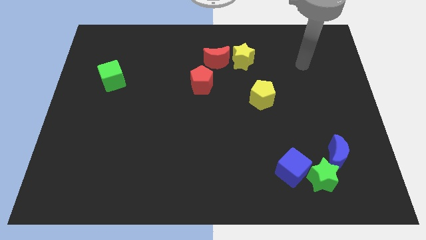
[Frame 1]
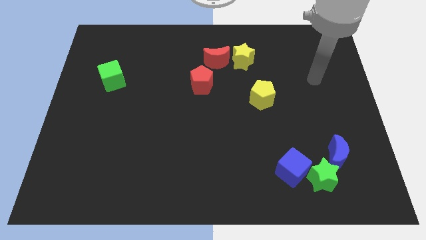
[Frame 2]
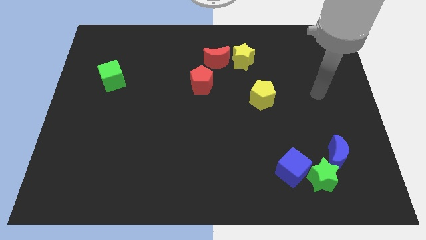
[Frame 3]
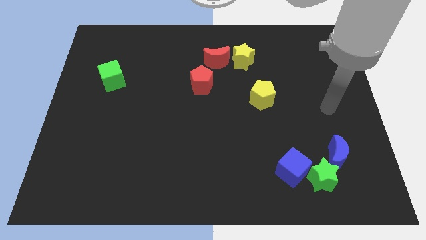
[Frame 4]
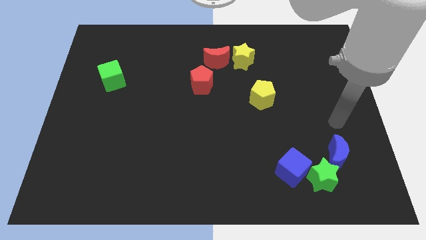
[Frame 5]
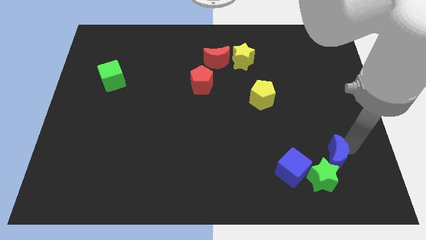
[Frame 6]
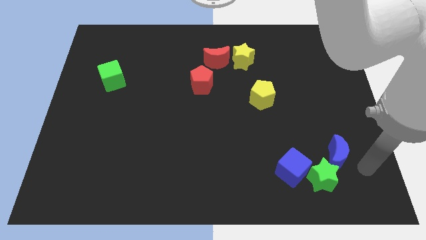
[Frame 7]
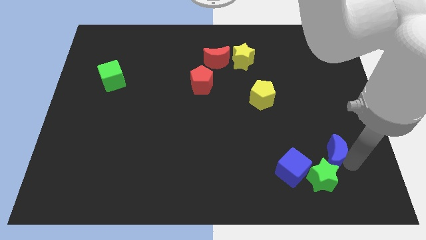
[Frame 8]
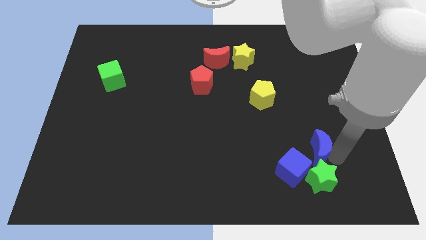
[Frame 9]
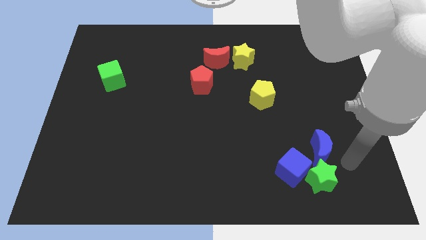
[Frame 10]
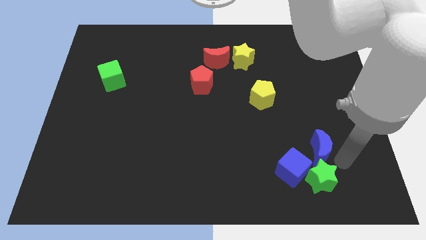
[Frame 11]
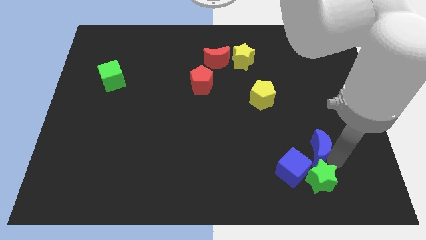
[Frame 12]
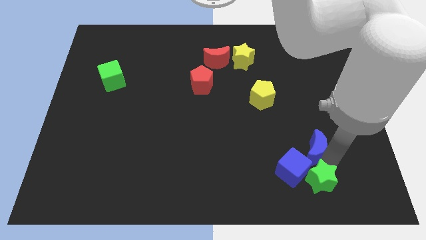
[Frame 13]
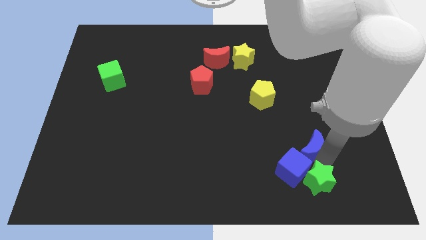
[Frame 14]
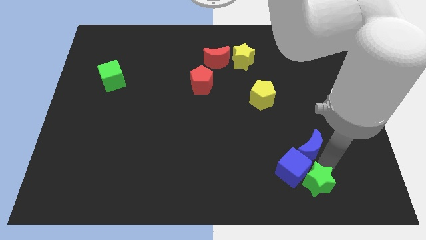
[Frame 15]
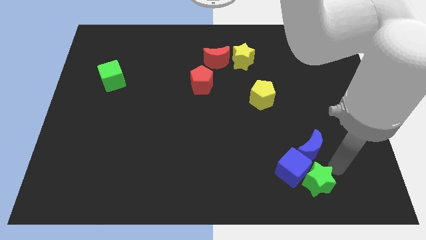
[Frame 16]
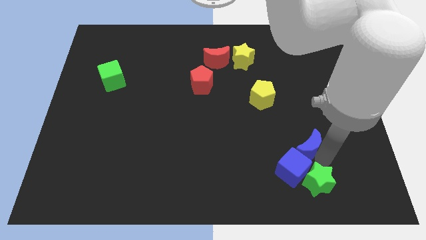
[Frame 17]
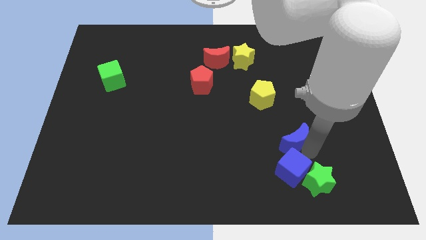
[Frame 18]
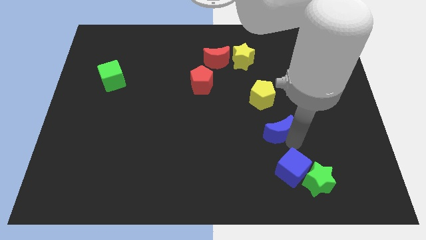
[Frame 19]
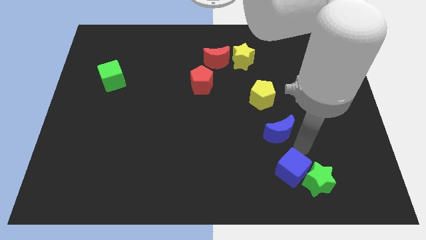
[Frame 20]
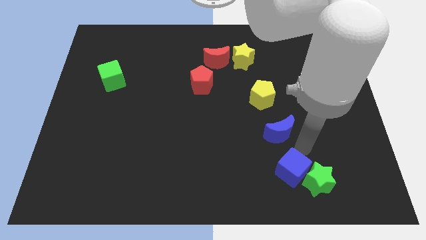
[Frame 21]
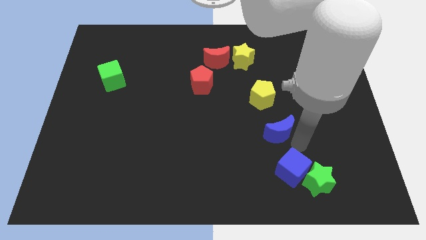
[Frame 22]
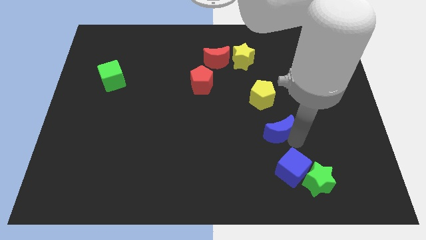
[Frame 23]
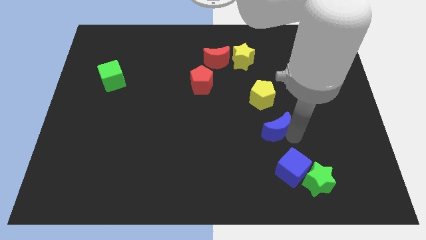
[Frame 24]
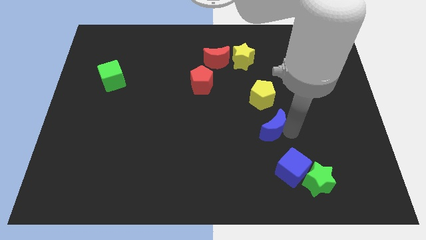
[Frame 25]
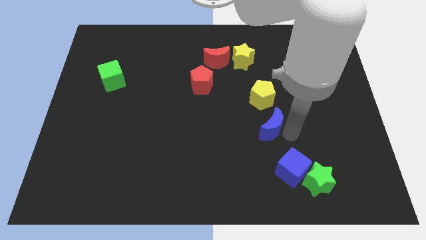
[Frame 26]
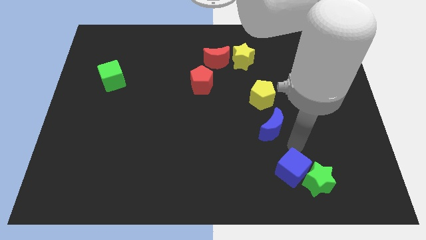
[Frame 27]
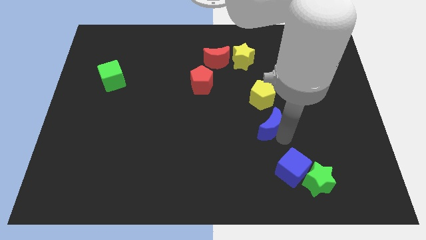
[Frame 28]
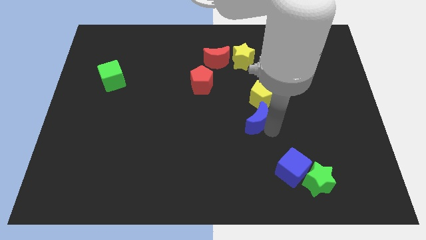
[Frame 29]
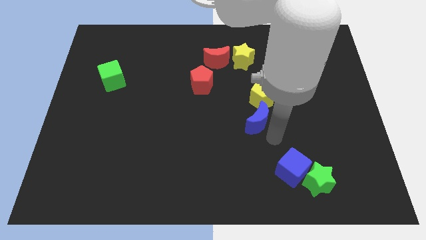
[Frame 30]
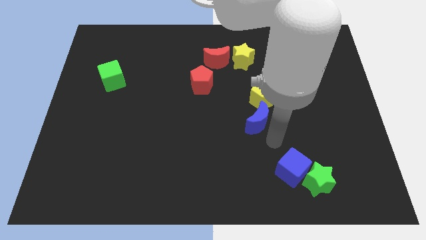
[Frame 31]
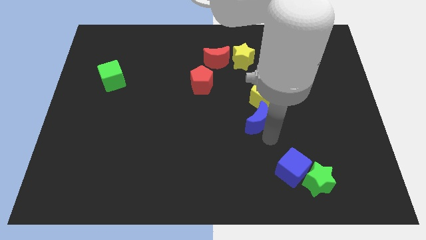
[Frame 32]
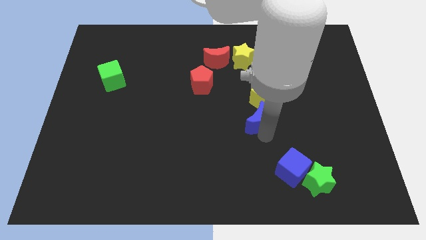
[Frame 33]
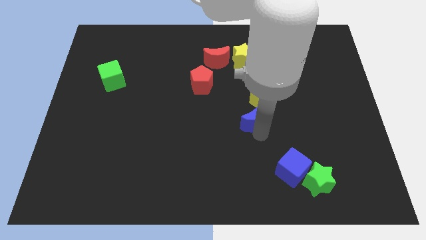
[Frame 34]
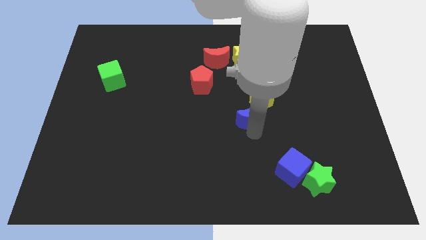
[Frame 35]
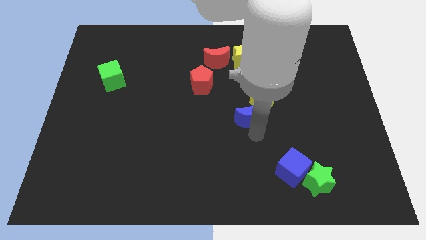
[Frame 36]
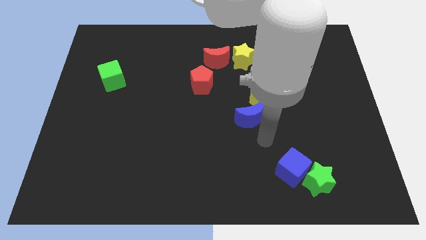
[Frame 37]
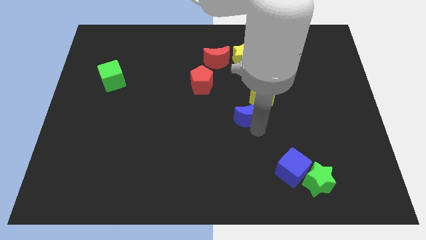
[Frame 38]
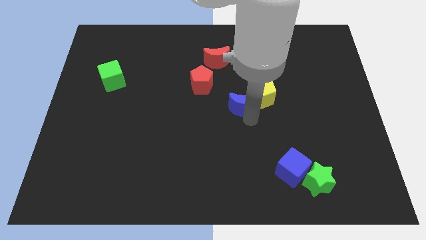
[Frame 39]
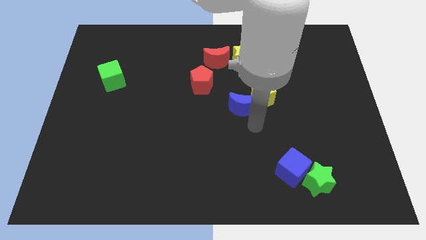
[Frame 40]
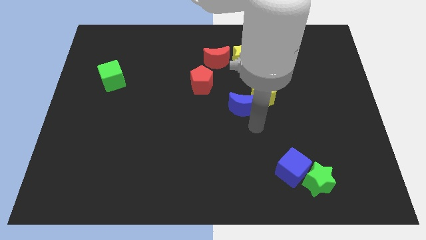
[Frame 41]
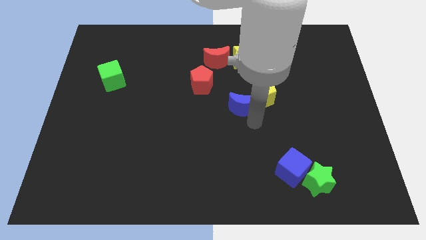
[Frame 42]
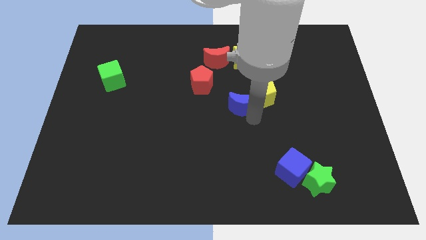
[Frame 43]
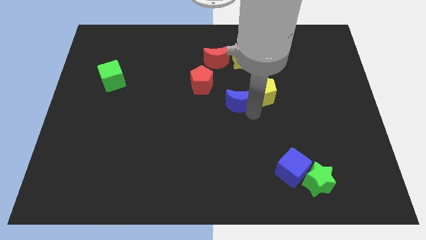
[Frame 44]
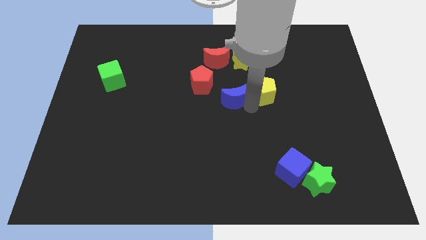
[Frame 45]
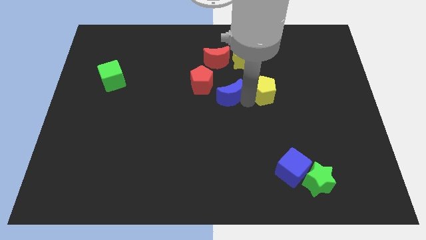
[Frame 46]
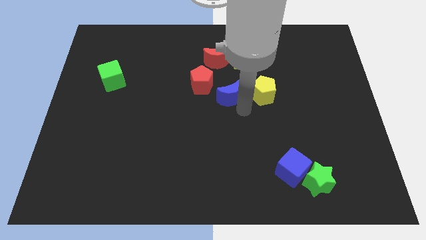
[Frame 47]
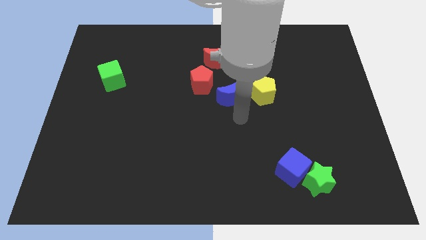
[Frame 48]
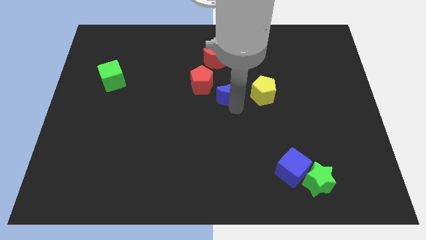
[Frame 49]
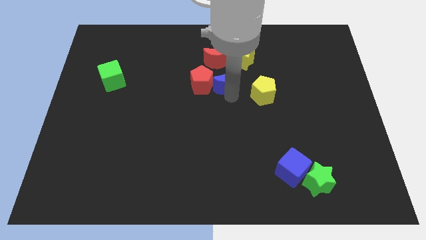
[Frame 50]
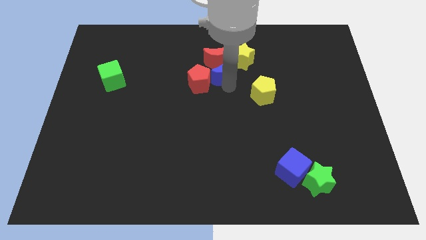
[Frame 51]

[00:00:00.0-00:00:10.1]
push the blue moon next to the red moon

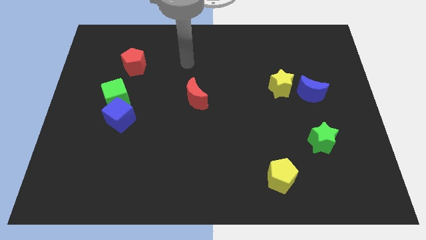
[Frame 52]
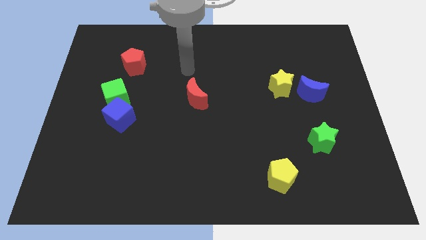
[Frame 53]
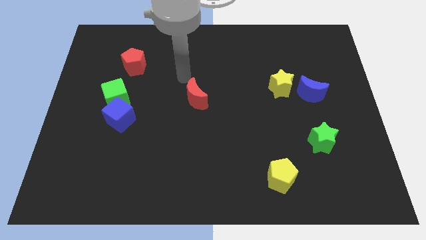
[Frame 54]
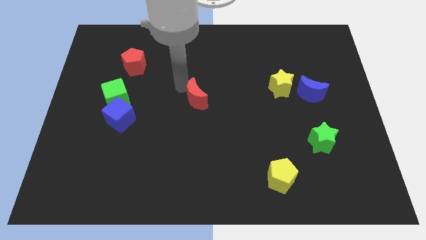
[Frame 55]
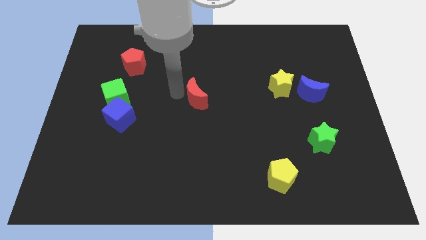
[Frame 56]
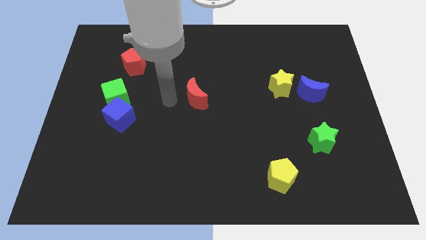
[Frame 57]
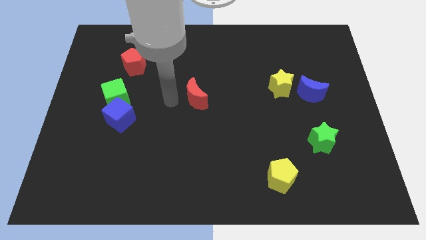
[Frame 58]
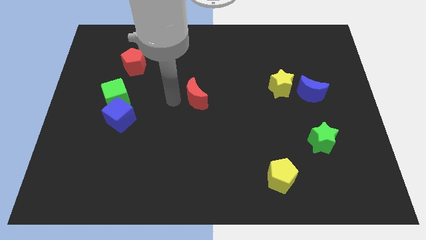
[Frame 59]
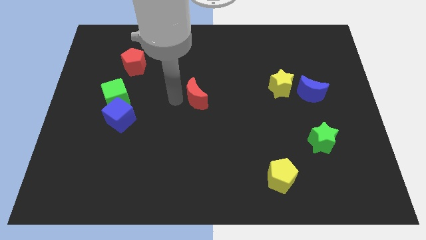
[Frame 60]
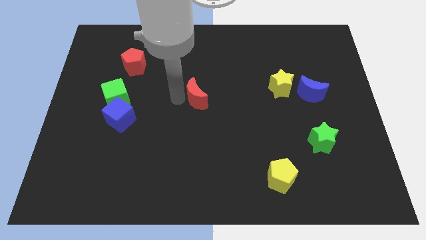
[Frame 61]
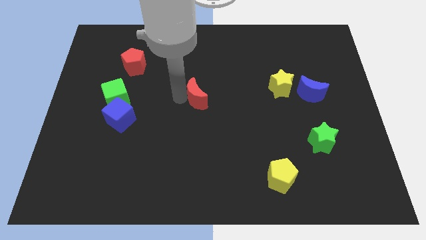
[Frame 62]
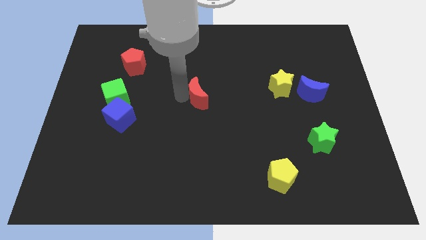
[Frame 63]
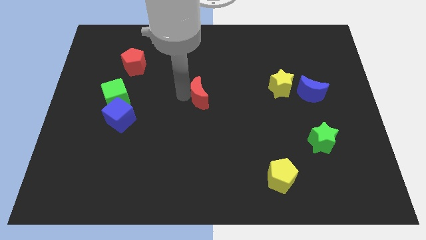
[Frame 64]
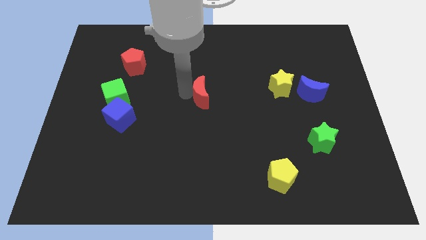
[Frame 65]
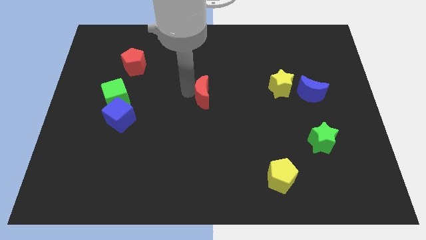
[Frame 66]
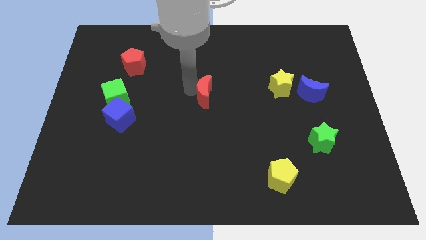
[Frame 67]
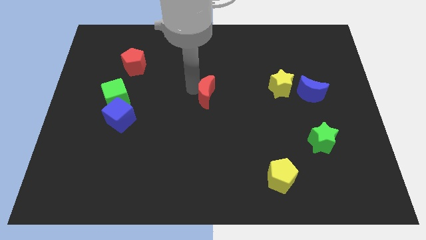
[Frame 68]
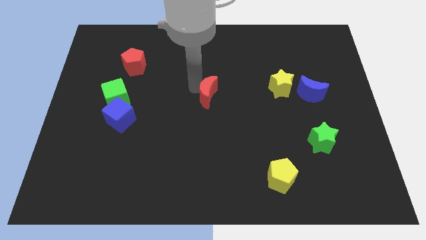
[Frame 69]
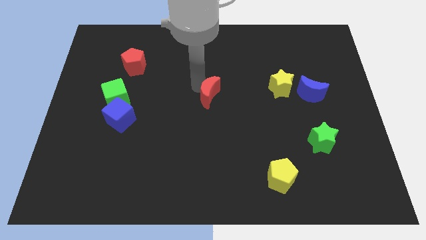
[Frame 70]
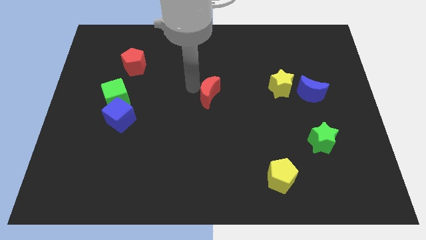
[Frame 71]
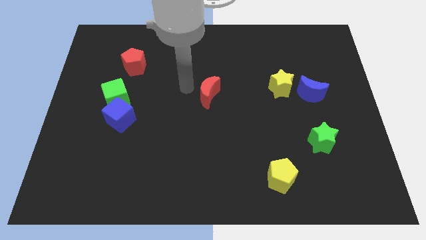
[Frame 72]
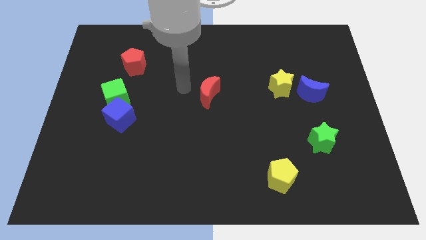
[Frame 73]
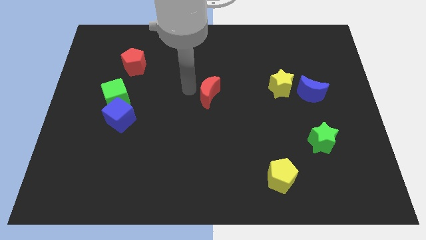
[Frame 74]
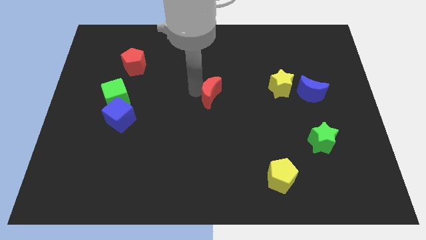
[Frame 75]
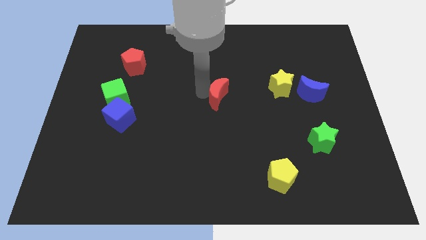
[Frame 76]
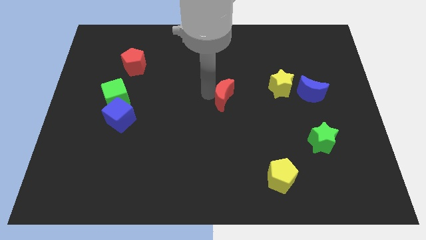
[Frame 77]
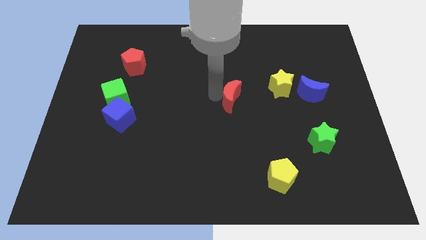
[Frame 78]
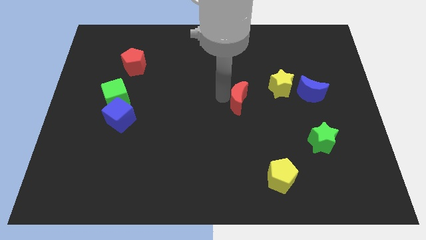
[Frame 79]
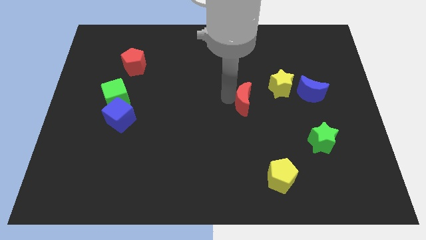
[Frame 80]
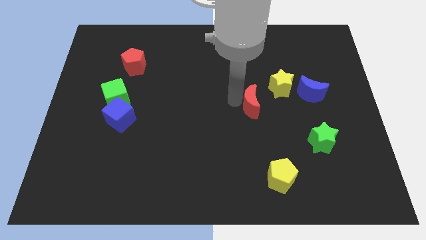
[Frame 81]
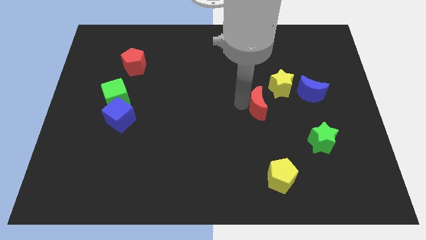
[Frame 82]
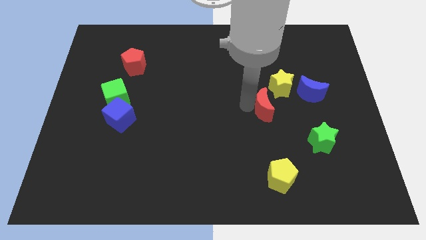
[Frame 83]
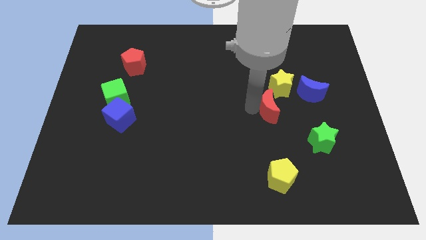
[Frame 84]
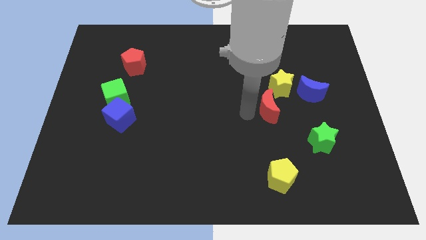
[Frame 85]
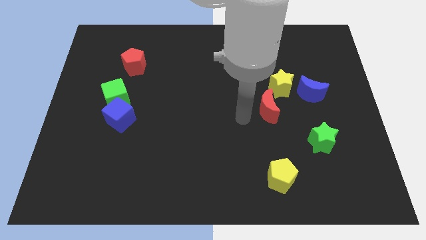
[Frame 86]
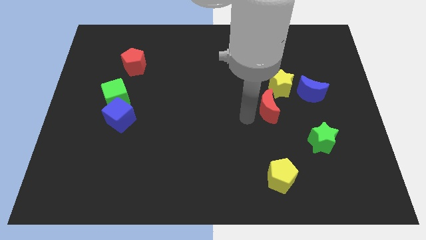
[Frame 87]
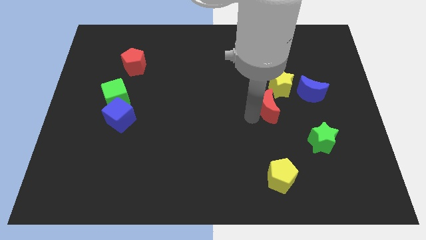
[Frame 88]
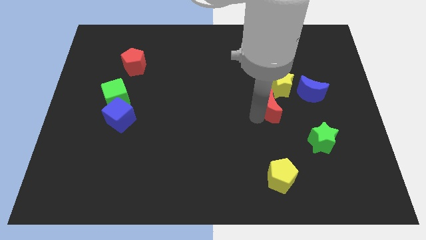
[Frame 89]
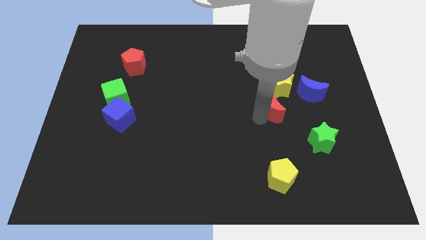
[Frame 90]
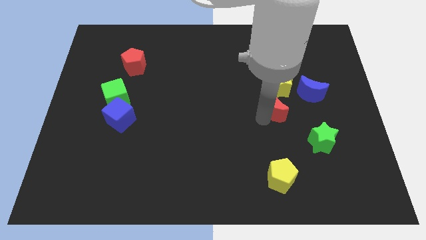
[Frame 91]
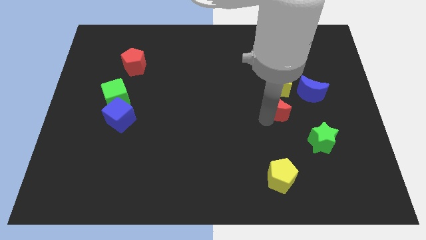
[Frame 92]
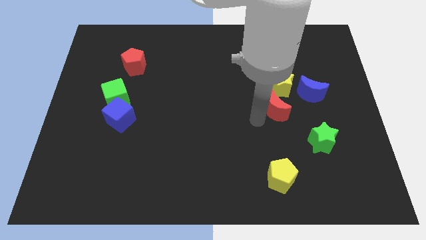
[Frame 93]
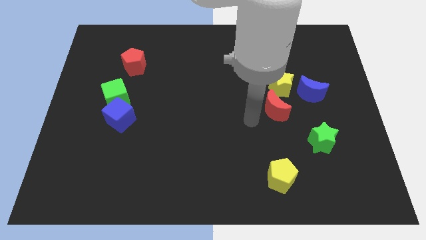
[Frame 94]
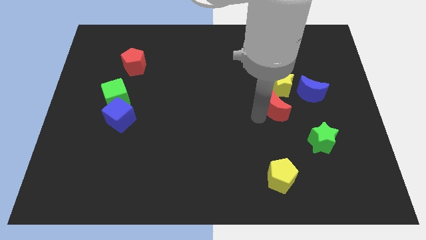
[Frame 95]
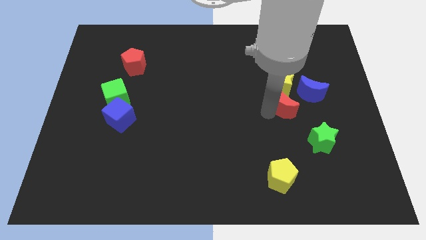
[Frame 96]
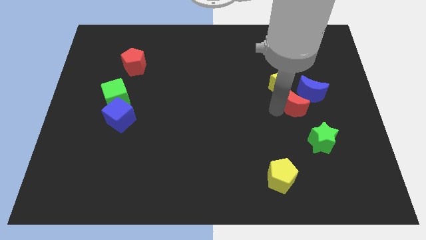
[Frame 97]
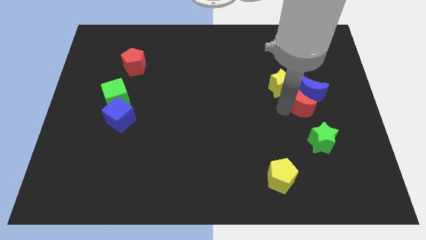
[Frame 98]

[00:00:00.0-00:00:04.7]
move the red moon next to the blue moon
